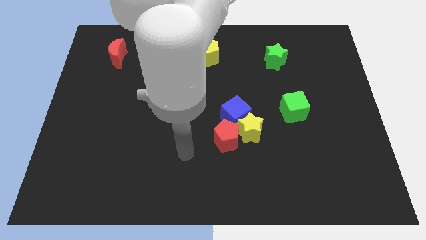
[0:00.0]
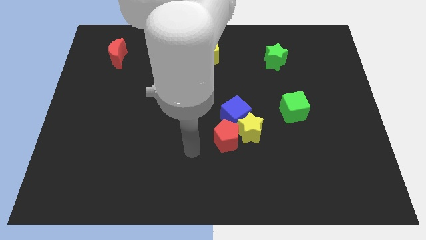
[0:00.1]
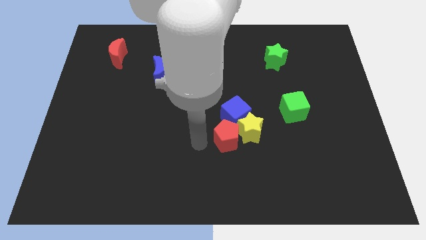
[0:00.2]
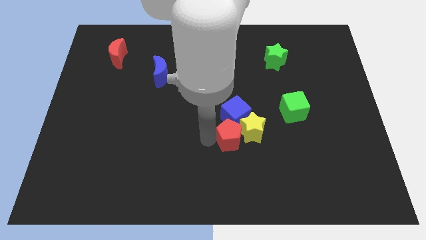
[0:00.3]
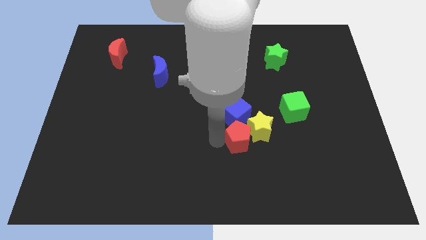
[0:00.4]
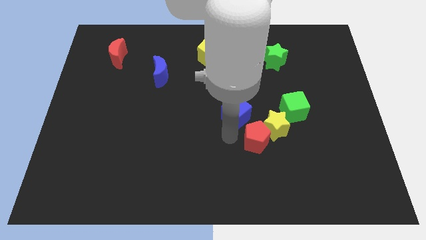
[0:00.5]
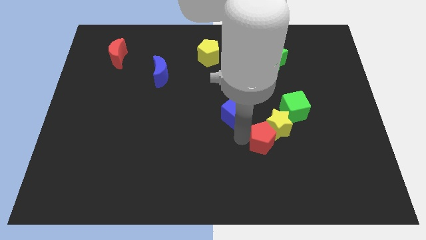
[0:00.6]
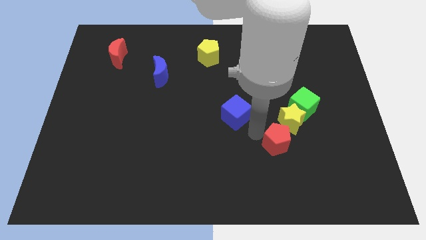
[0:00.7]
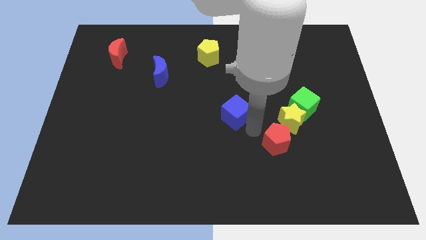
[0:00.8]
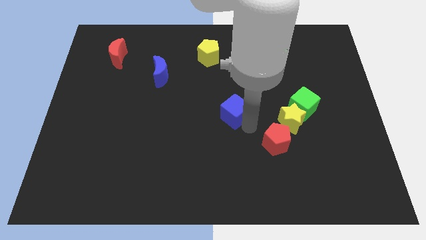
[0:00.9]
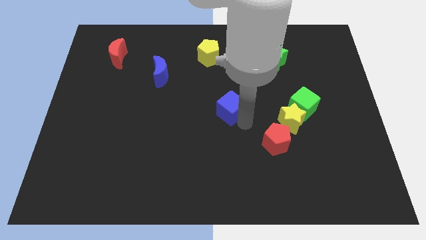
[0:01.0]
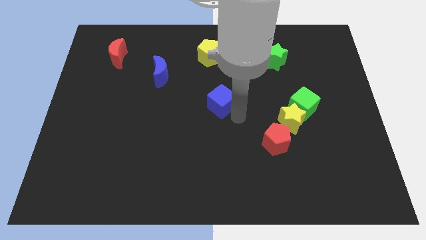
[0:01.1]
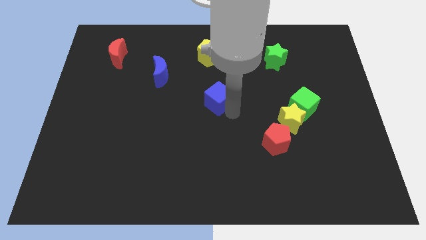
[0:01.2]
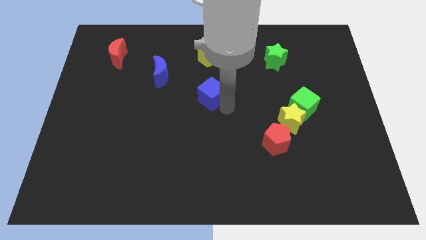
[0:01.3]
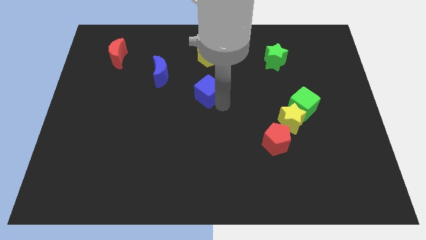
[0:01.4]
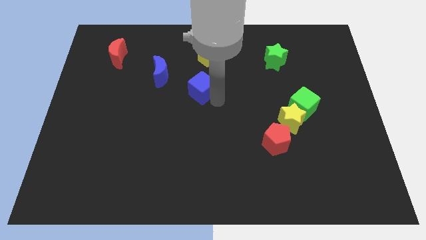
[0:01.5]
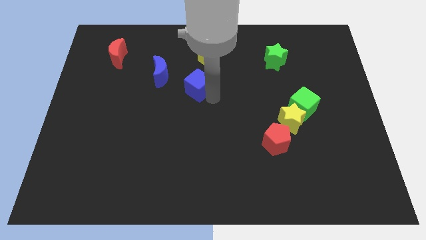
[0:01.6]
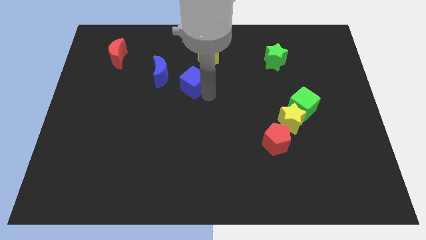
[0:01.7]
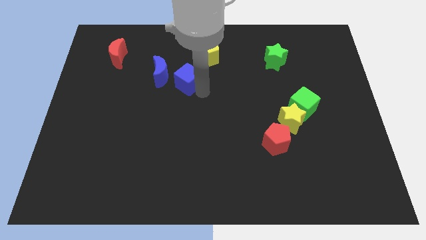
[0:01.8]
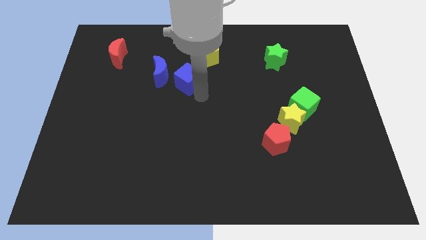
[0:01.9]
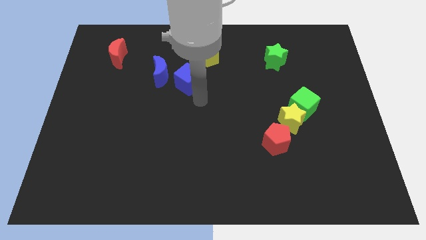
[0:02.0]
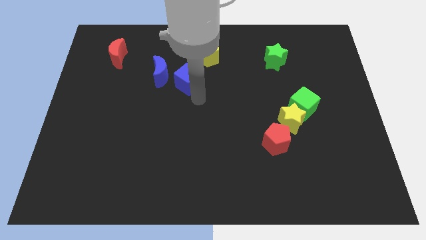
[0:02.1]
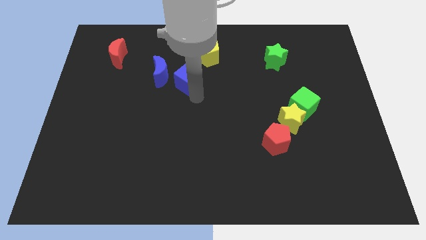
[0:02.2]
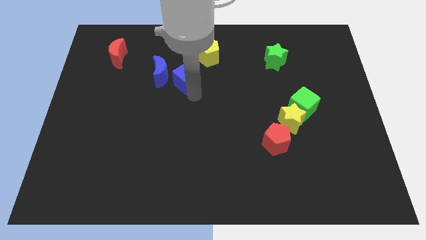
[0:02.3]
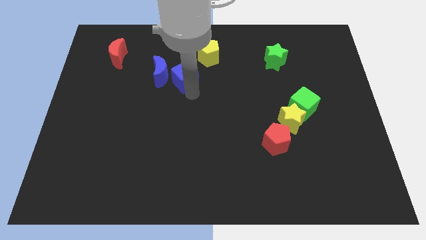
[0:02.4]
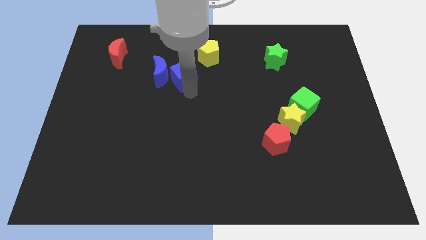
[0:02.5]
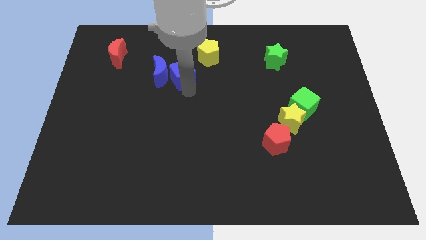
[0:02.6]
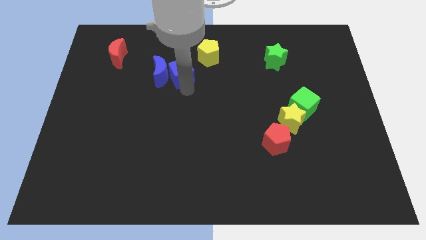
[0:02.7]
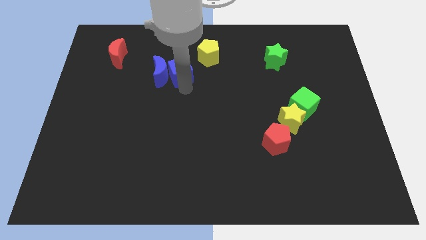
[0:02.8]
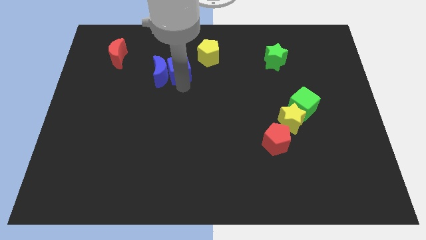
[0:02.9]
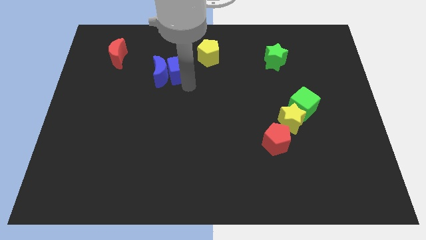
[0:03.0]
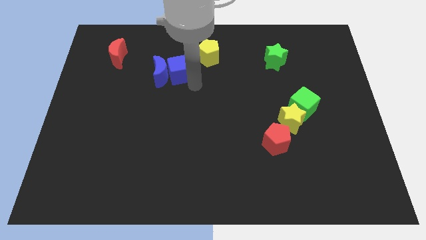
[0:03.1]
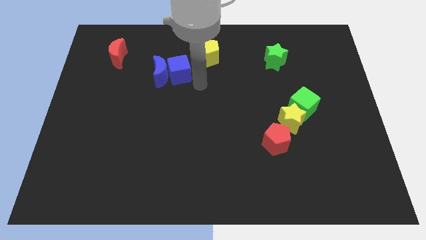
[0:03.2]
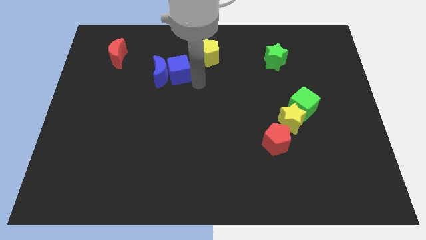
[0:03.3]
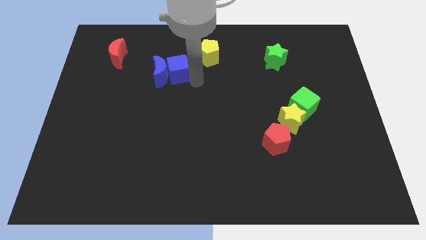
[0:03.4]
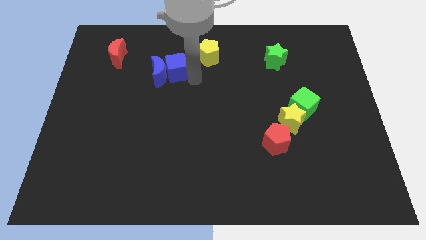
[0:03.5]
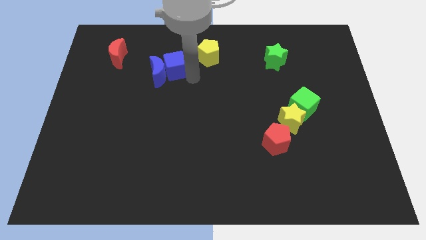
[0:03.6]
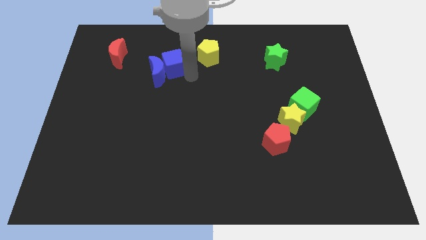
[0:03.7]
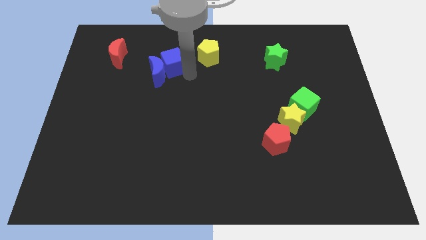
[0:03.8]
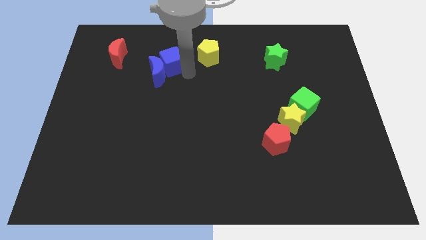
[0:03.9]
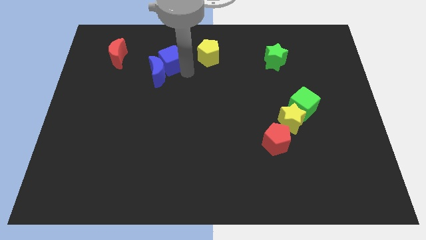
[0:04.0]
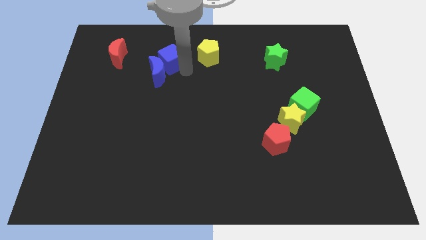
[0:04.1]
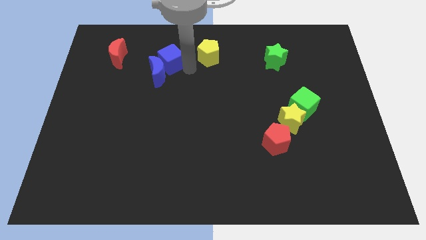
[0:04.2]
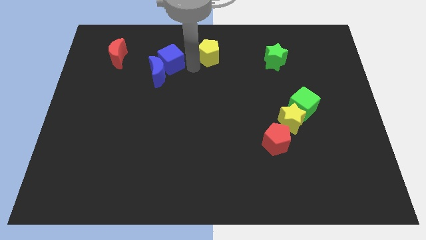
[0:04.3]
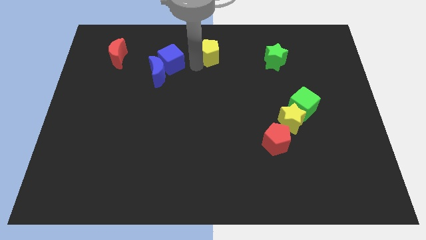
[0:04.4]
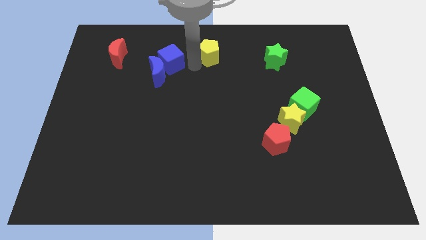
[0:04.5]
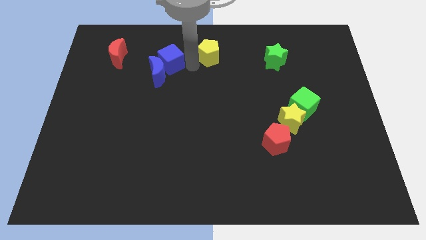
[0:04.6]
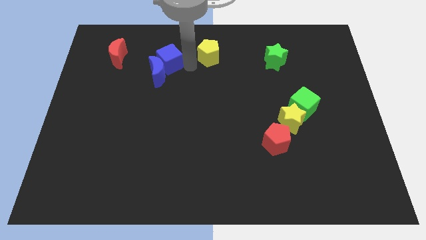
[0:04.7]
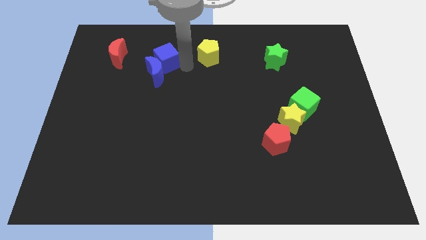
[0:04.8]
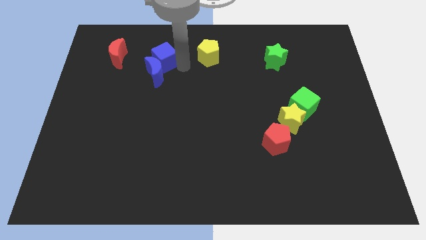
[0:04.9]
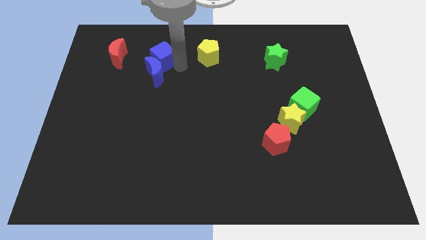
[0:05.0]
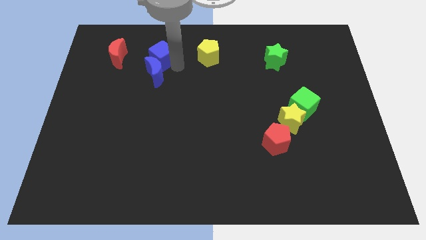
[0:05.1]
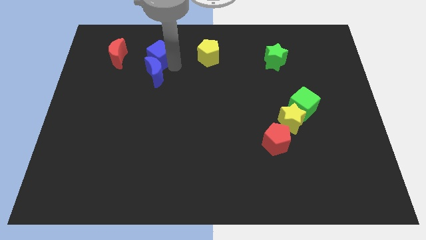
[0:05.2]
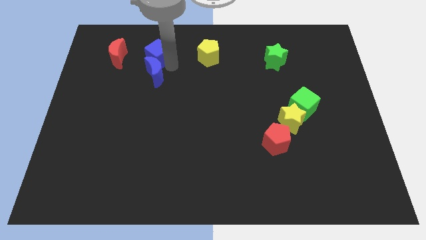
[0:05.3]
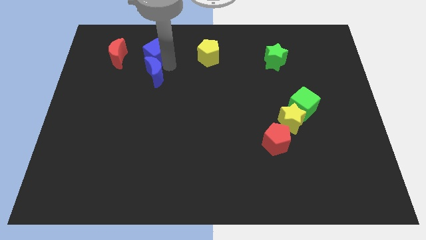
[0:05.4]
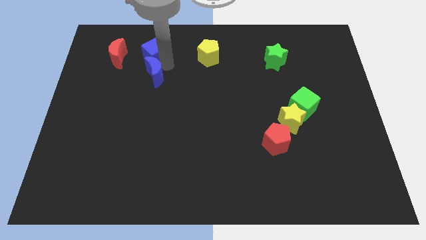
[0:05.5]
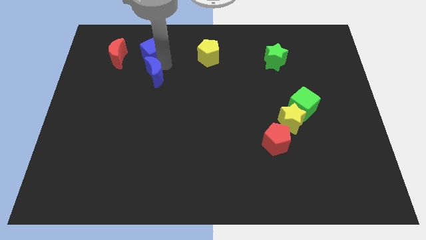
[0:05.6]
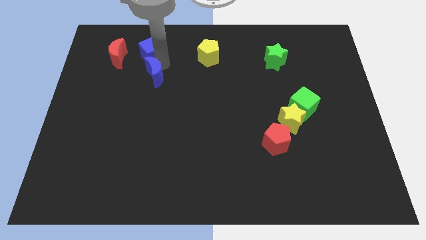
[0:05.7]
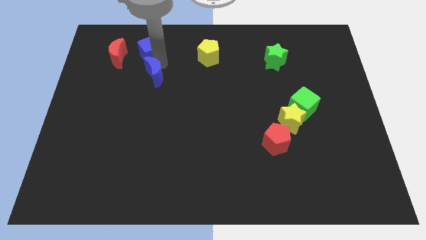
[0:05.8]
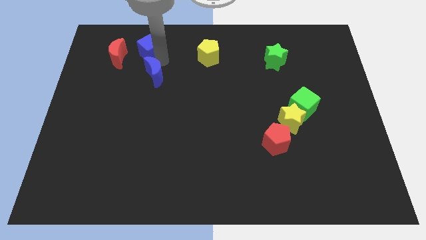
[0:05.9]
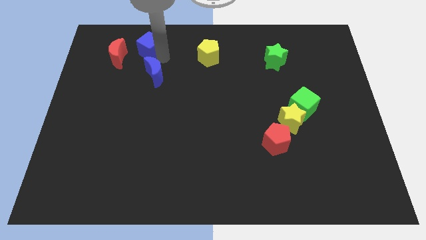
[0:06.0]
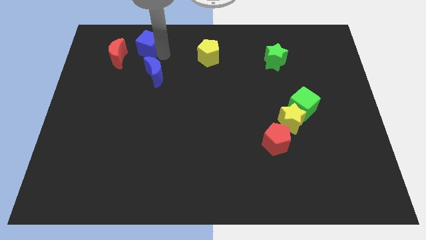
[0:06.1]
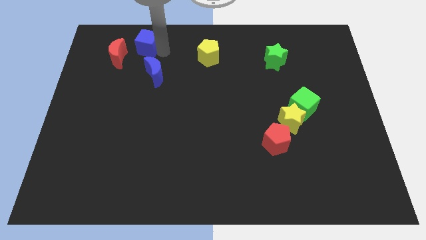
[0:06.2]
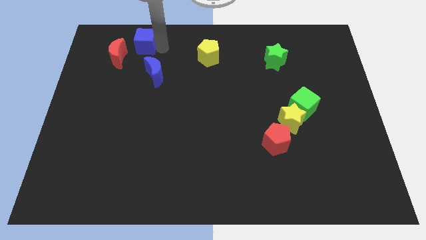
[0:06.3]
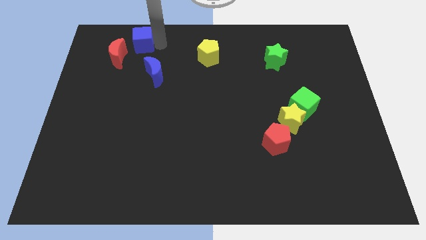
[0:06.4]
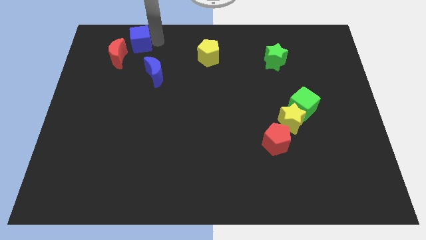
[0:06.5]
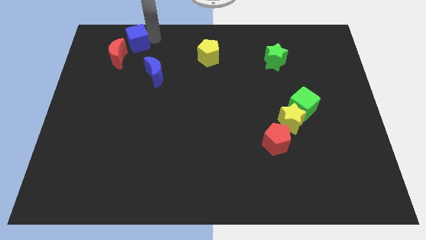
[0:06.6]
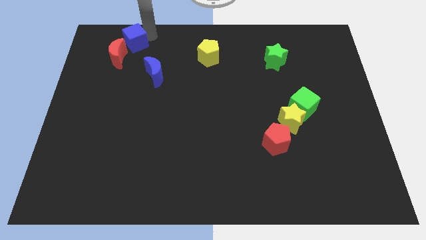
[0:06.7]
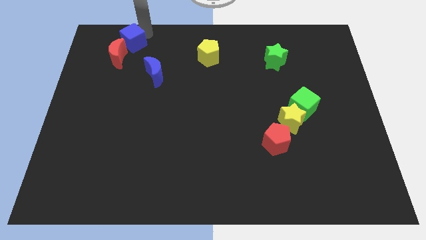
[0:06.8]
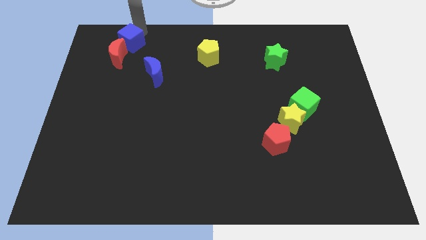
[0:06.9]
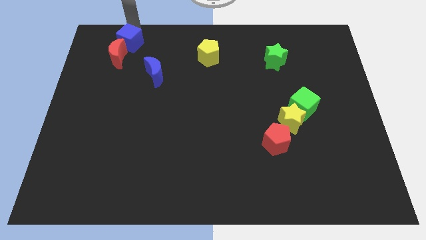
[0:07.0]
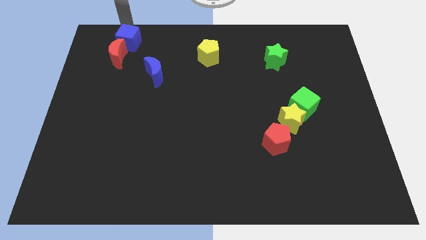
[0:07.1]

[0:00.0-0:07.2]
move the blue cube towards the red moon
